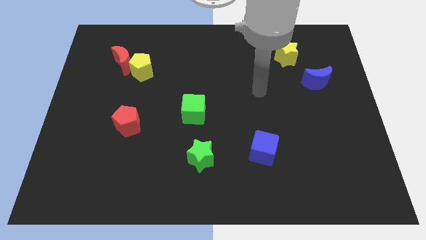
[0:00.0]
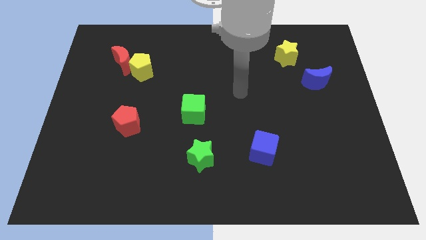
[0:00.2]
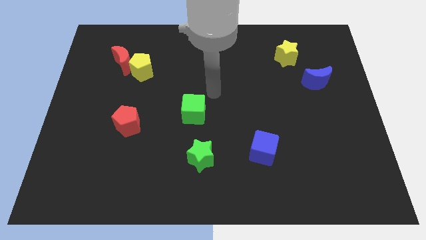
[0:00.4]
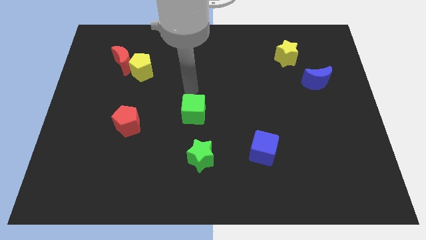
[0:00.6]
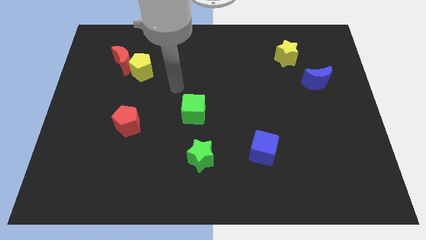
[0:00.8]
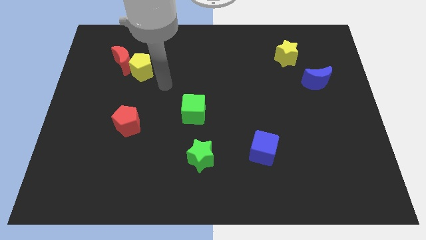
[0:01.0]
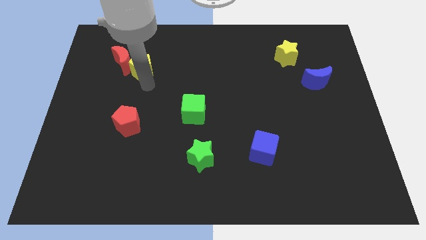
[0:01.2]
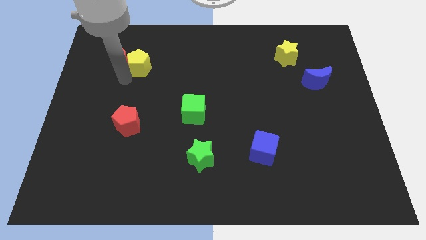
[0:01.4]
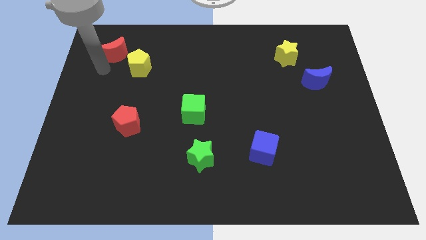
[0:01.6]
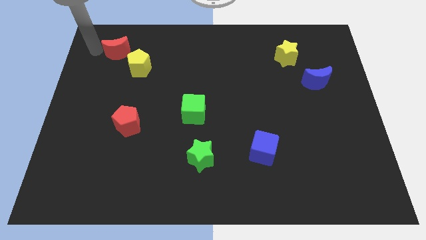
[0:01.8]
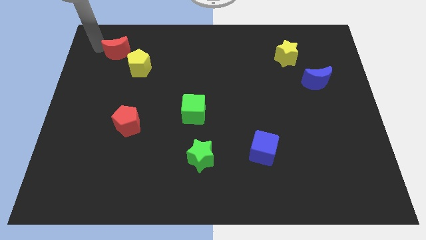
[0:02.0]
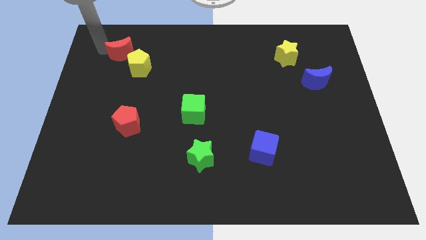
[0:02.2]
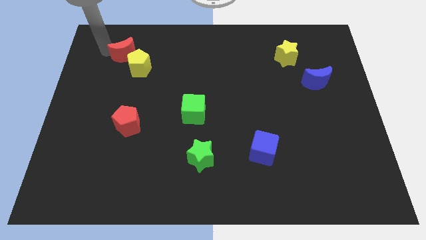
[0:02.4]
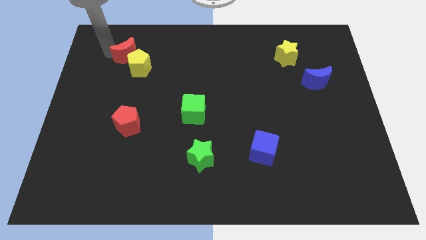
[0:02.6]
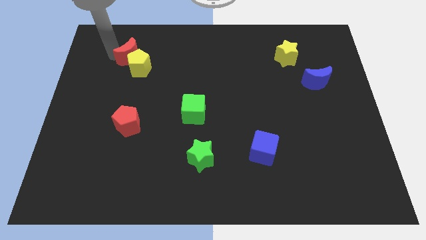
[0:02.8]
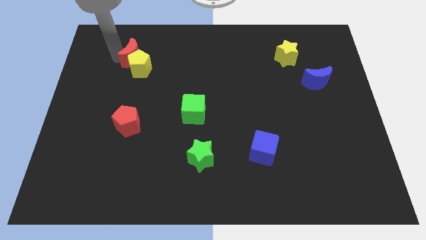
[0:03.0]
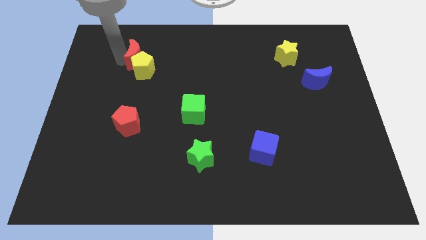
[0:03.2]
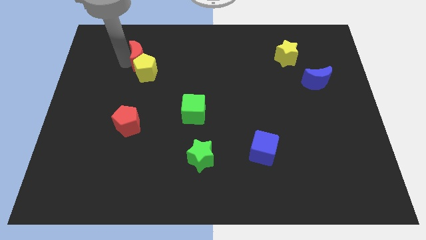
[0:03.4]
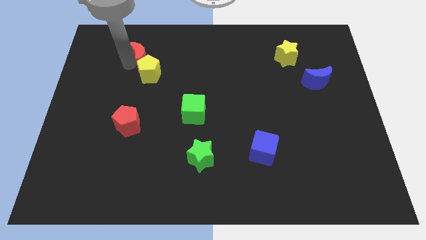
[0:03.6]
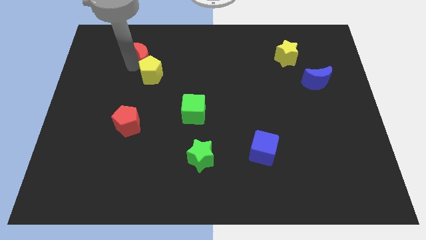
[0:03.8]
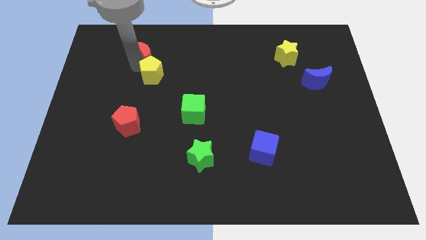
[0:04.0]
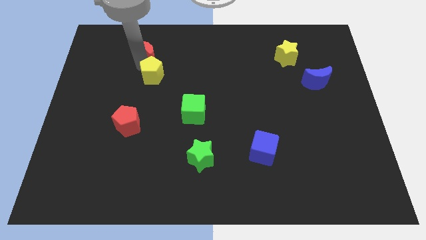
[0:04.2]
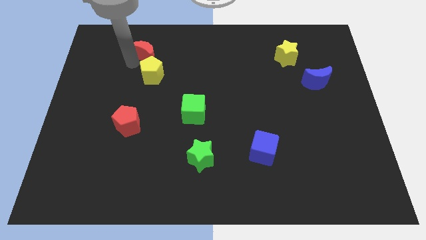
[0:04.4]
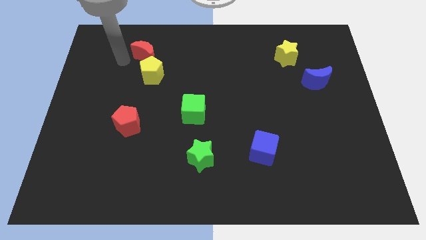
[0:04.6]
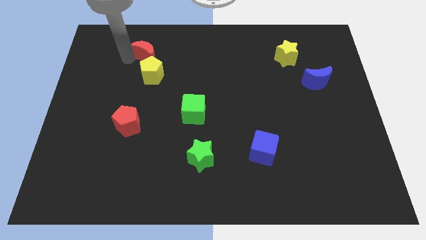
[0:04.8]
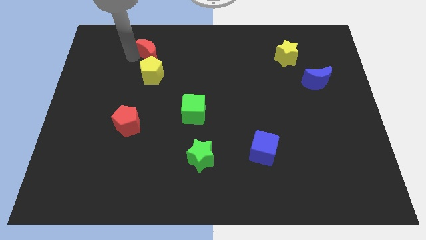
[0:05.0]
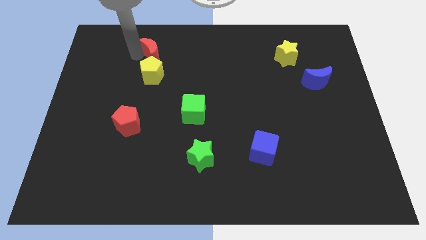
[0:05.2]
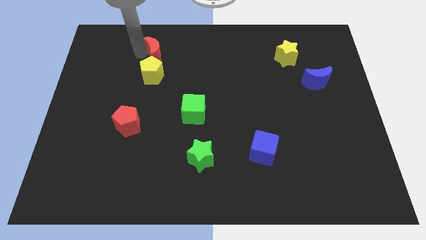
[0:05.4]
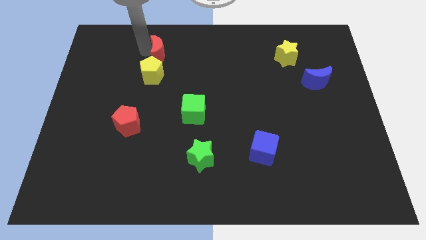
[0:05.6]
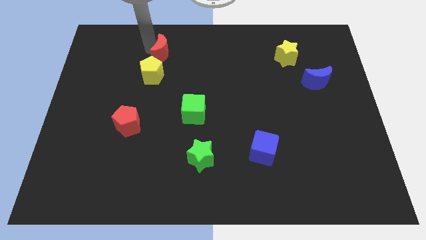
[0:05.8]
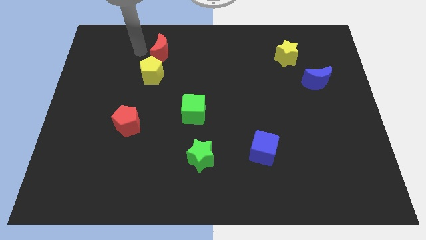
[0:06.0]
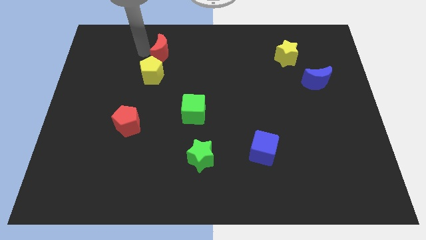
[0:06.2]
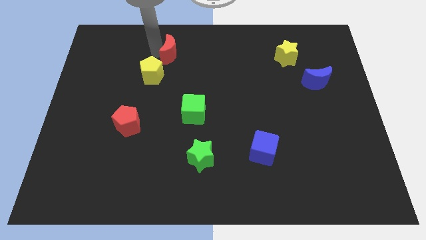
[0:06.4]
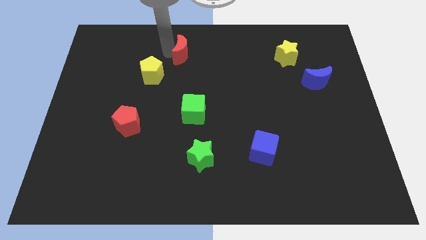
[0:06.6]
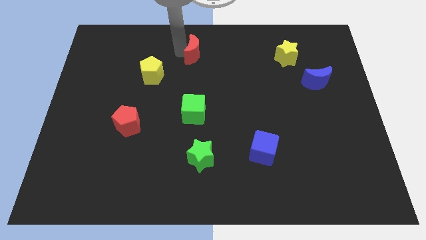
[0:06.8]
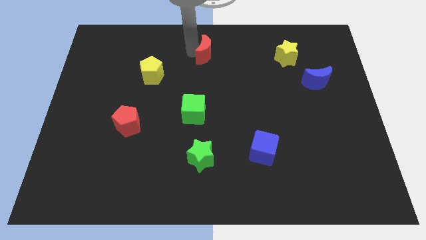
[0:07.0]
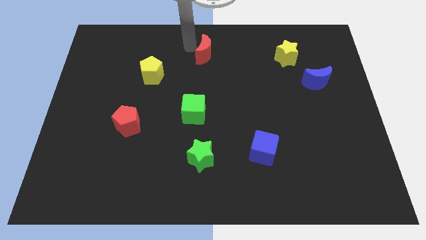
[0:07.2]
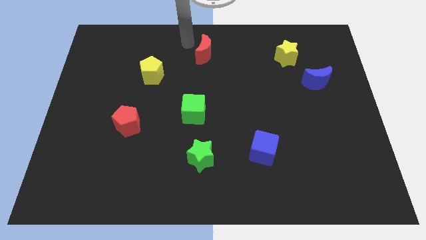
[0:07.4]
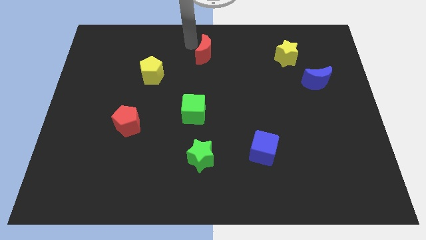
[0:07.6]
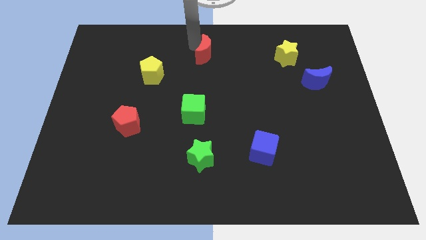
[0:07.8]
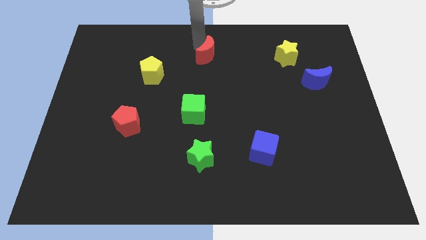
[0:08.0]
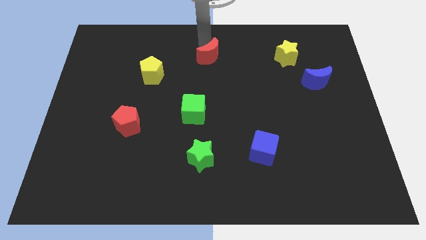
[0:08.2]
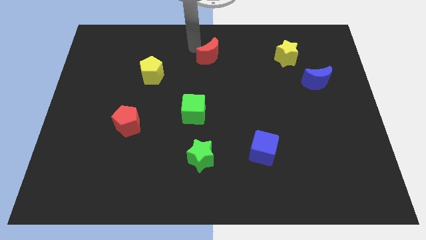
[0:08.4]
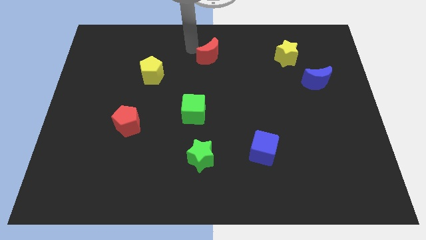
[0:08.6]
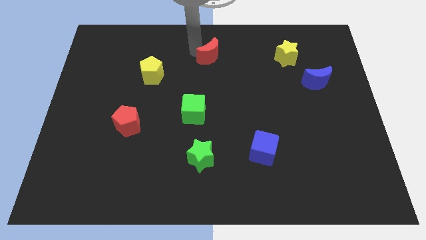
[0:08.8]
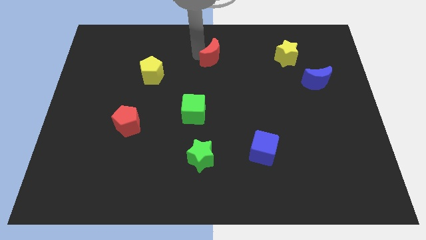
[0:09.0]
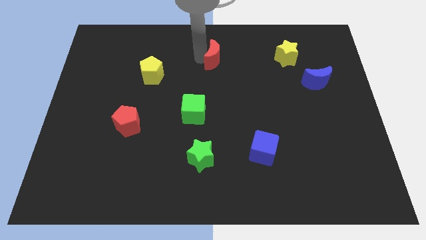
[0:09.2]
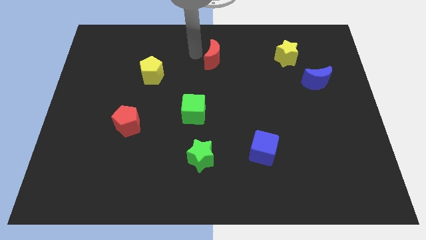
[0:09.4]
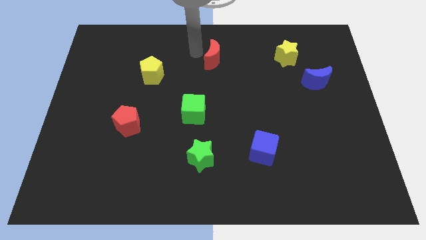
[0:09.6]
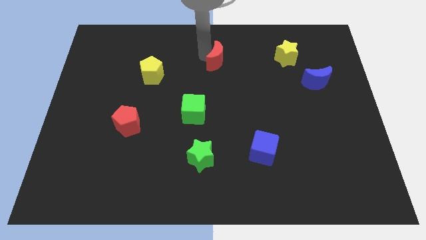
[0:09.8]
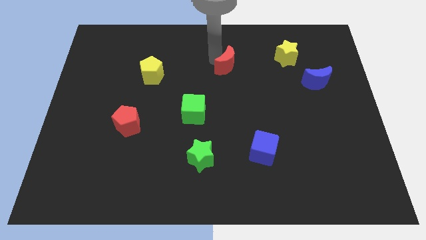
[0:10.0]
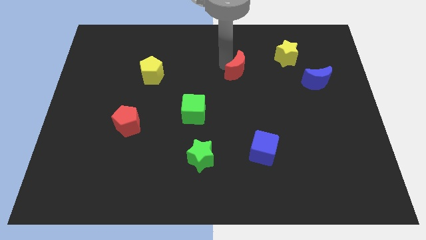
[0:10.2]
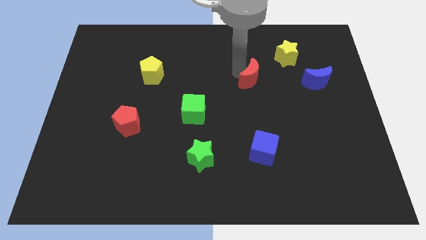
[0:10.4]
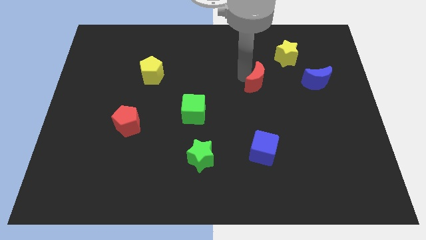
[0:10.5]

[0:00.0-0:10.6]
move the red moon to the left side of the blue moon

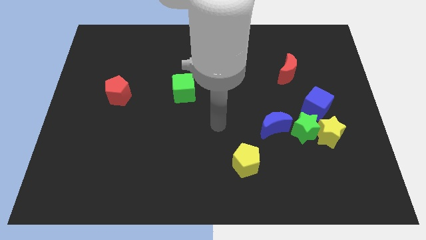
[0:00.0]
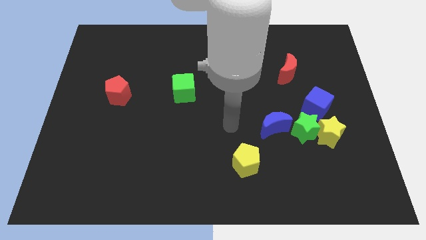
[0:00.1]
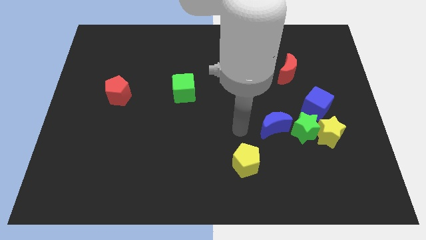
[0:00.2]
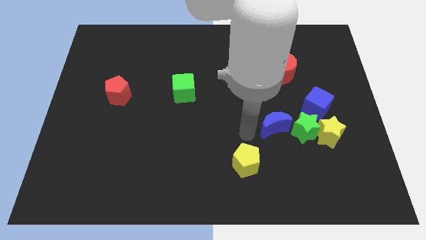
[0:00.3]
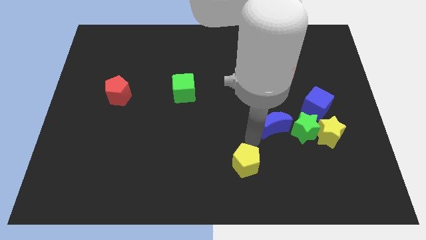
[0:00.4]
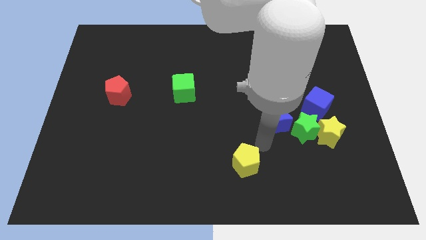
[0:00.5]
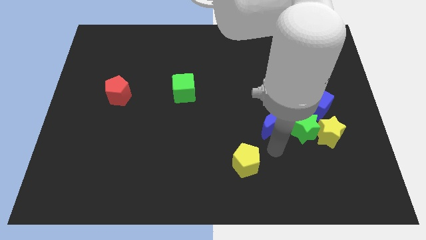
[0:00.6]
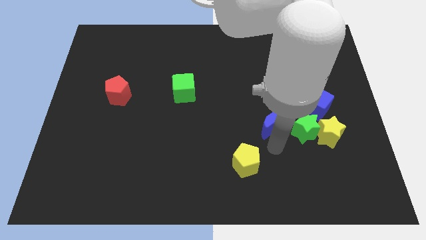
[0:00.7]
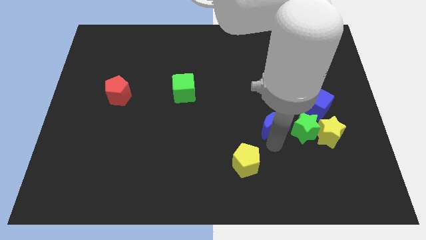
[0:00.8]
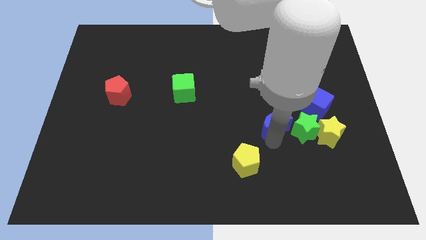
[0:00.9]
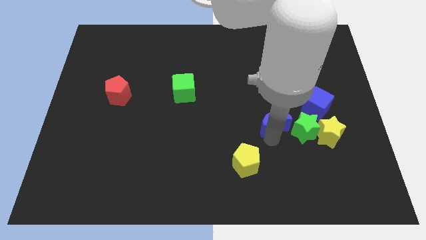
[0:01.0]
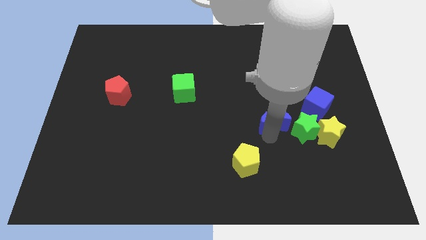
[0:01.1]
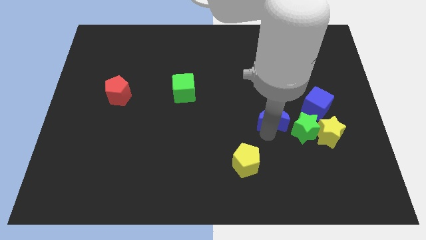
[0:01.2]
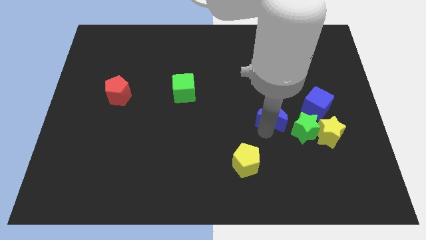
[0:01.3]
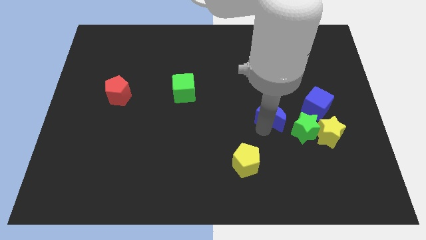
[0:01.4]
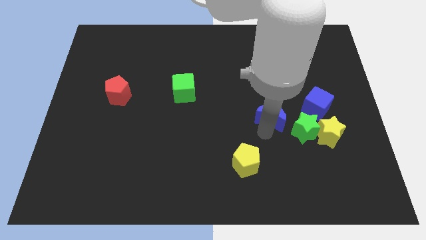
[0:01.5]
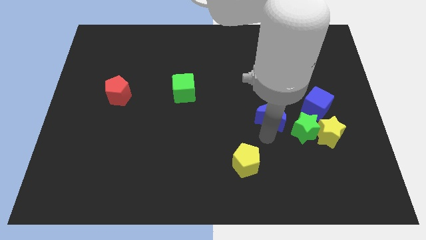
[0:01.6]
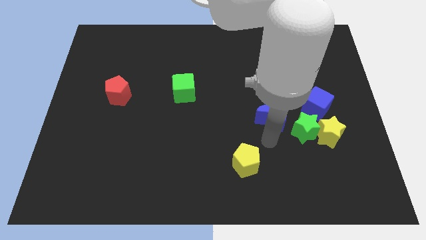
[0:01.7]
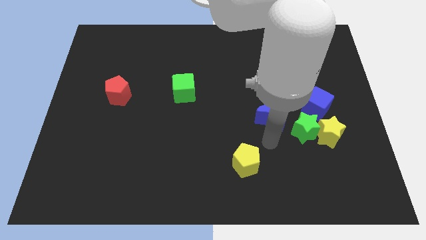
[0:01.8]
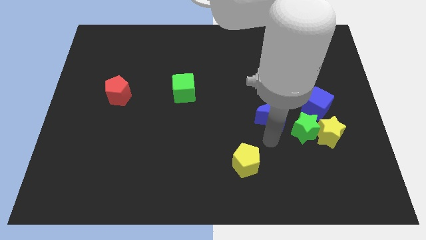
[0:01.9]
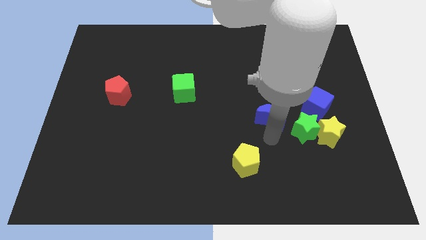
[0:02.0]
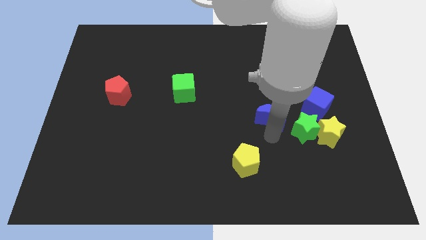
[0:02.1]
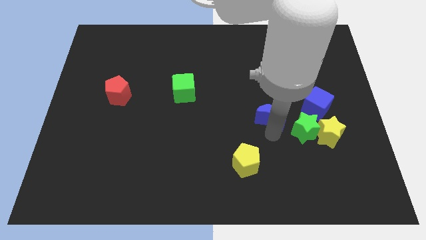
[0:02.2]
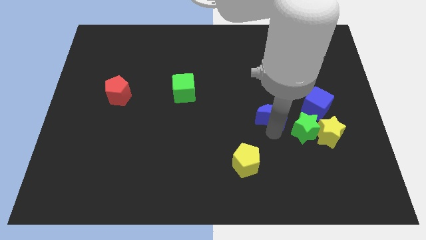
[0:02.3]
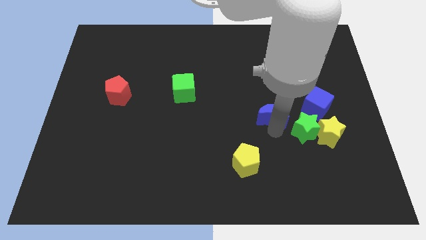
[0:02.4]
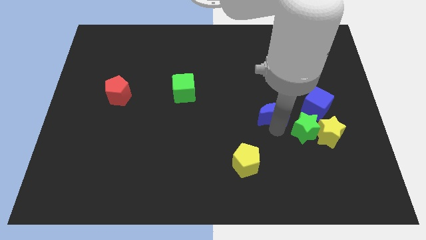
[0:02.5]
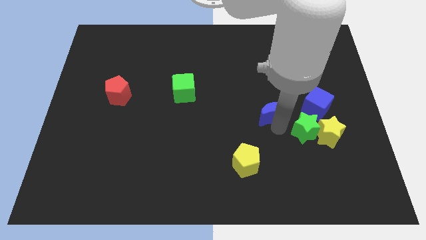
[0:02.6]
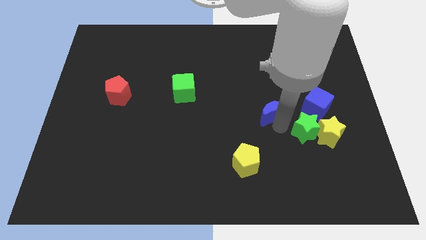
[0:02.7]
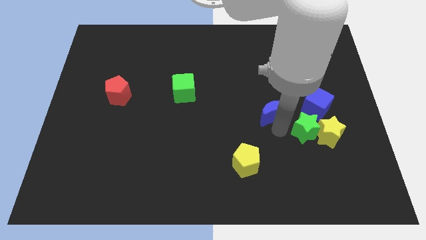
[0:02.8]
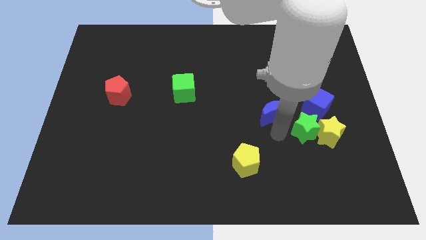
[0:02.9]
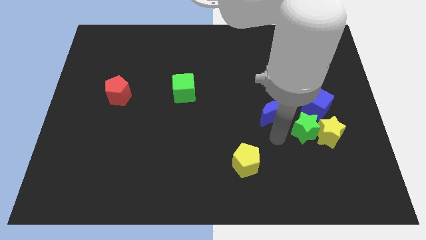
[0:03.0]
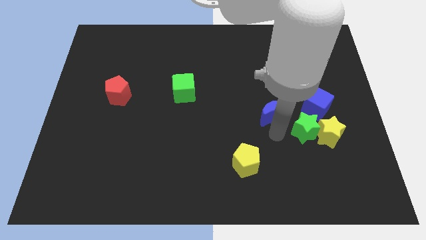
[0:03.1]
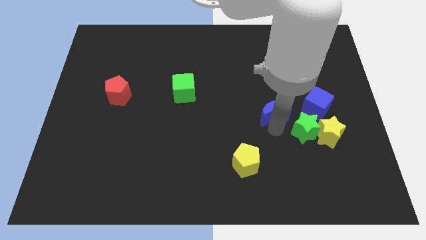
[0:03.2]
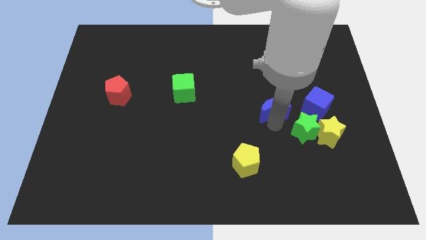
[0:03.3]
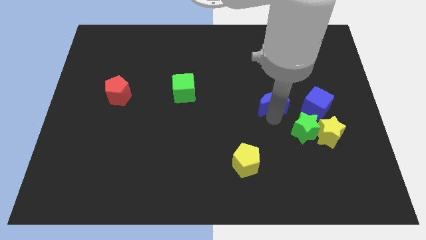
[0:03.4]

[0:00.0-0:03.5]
put the blue moon to the bottom left of the red moon
